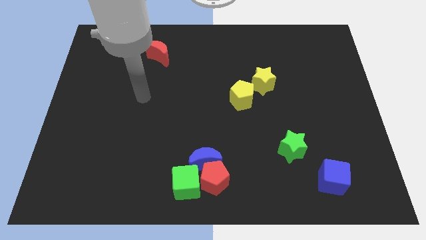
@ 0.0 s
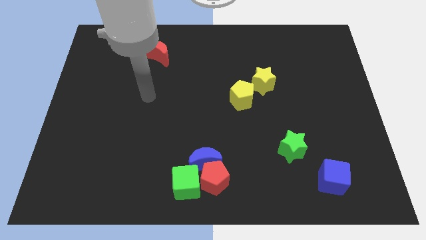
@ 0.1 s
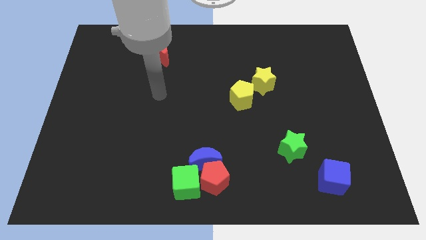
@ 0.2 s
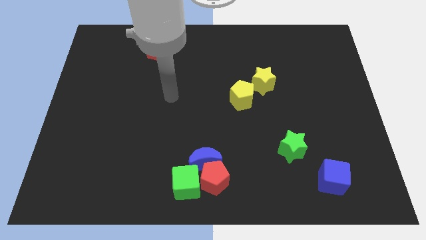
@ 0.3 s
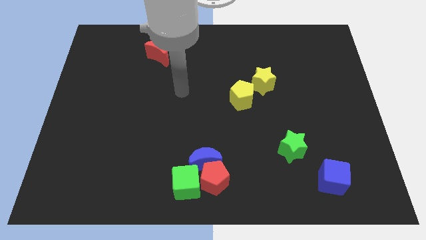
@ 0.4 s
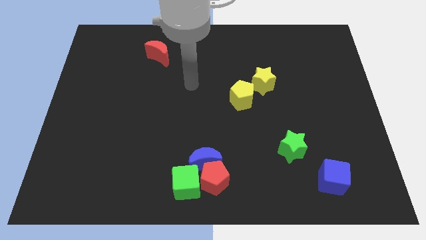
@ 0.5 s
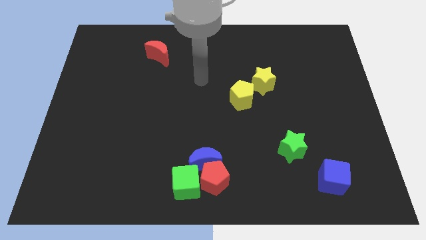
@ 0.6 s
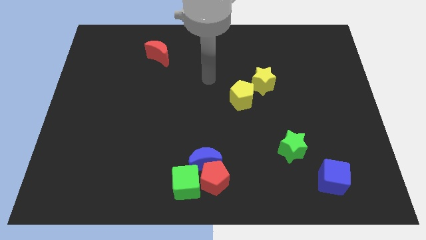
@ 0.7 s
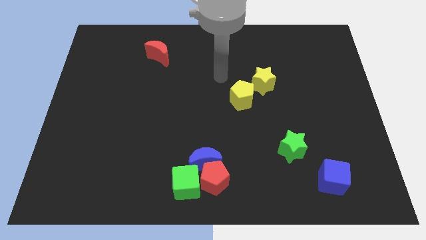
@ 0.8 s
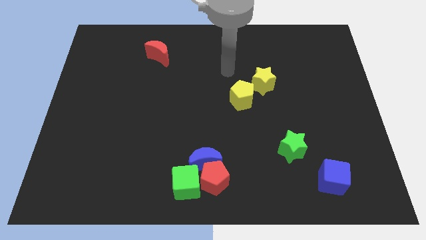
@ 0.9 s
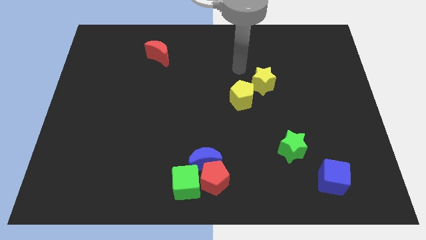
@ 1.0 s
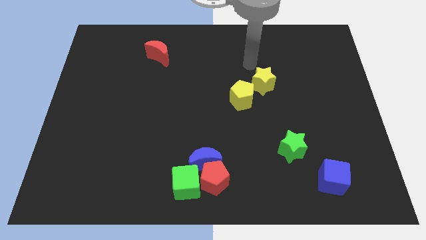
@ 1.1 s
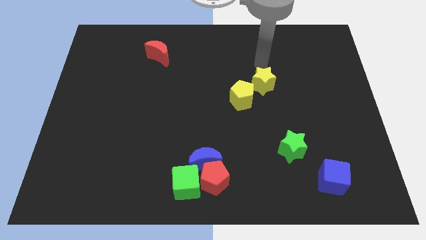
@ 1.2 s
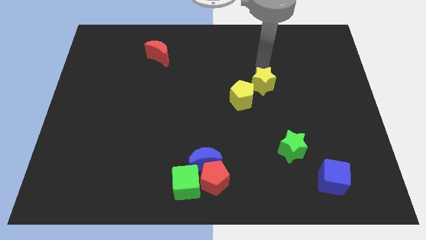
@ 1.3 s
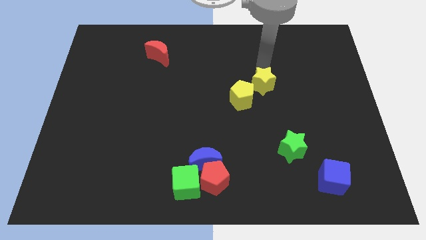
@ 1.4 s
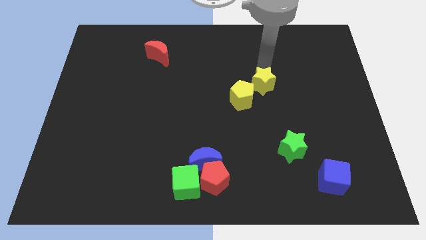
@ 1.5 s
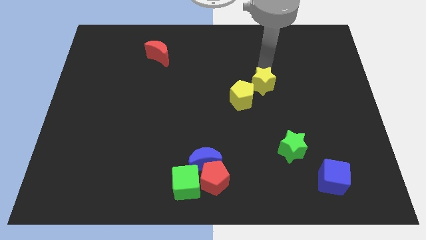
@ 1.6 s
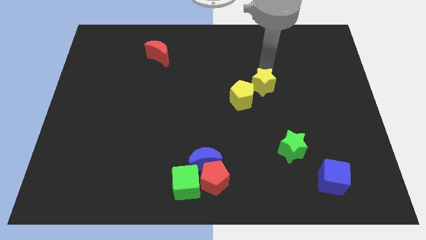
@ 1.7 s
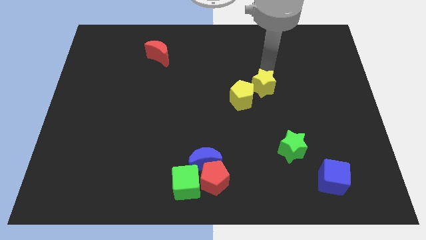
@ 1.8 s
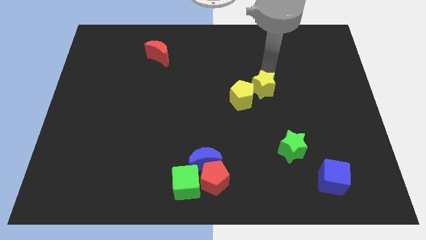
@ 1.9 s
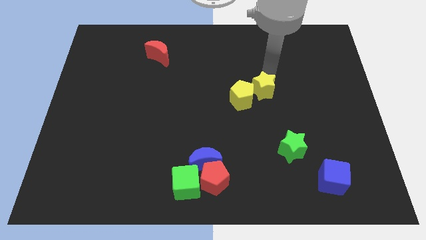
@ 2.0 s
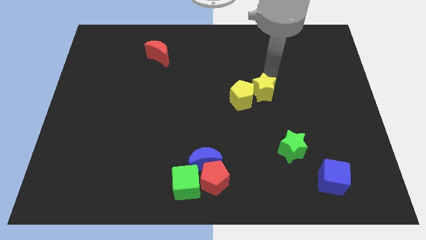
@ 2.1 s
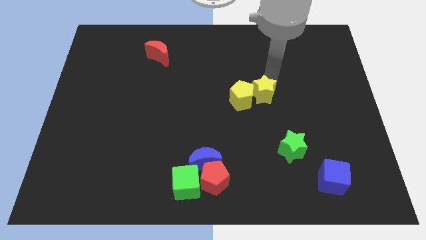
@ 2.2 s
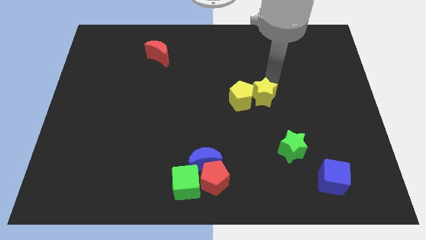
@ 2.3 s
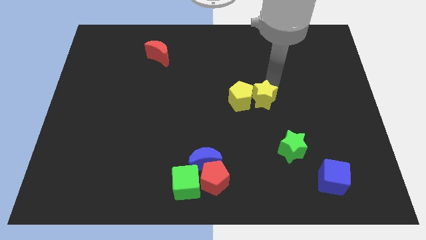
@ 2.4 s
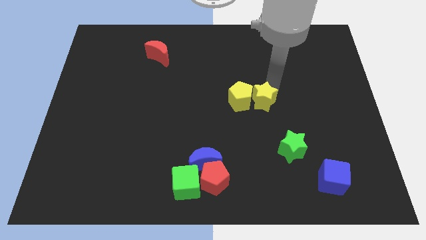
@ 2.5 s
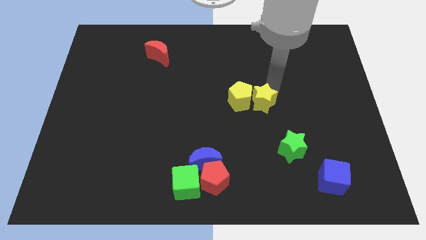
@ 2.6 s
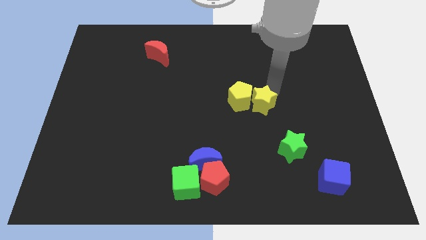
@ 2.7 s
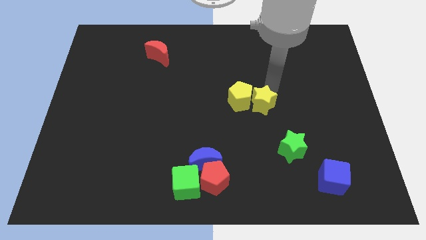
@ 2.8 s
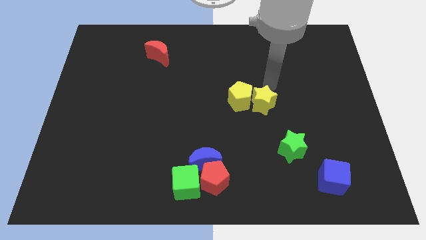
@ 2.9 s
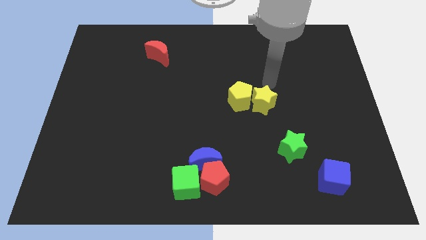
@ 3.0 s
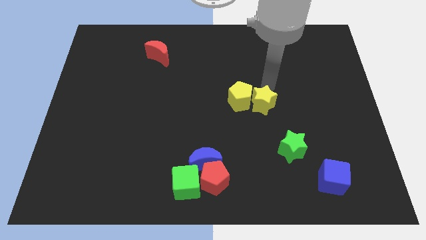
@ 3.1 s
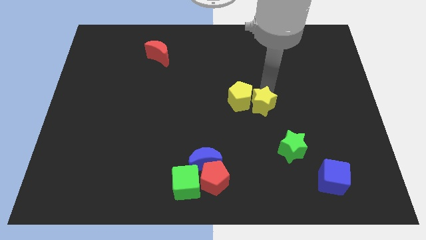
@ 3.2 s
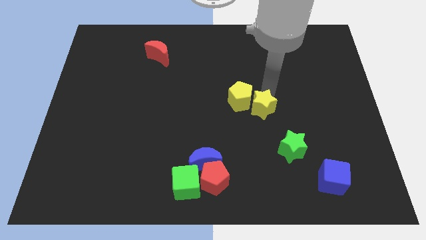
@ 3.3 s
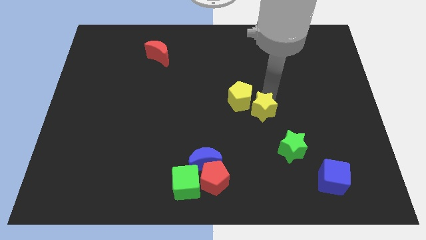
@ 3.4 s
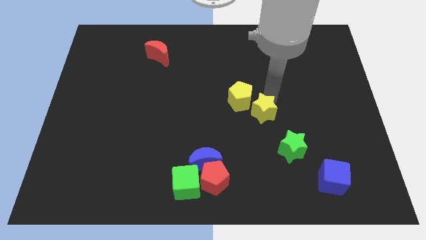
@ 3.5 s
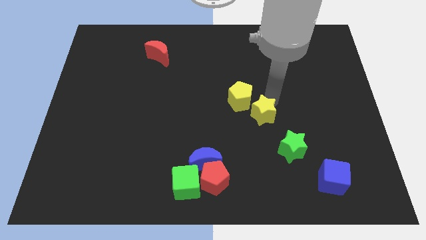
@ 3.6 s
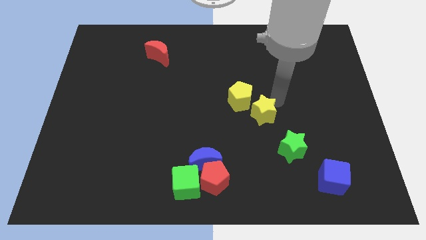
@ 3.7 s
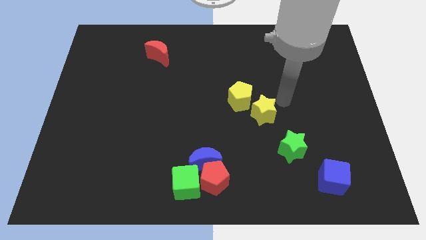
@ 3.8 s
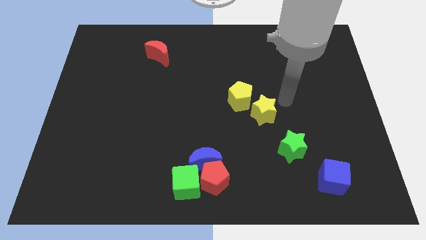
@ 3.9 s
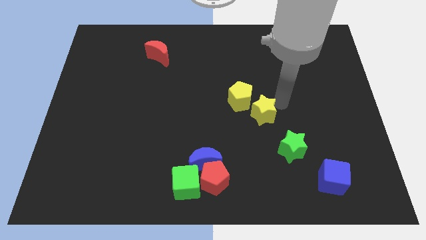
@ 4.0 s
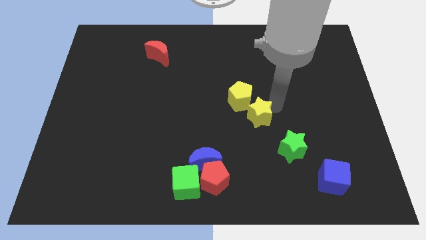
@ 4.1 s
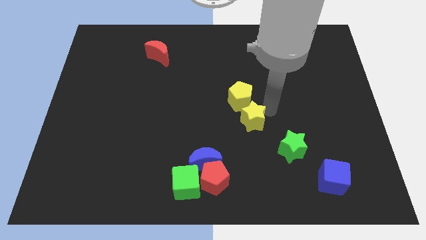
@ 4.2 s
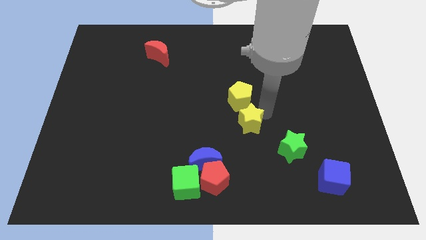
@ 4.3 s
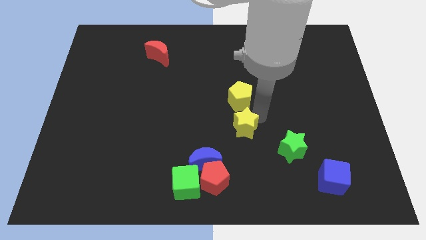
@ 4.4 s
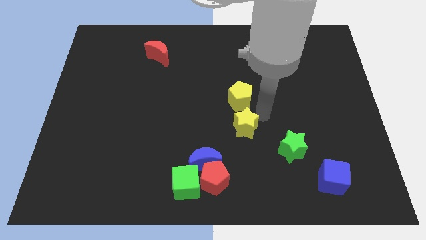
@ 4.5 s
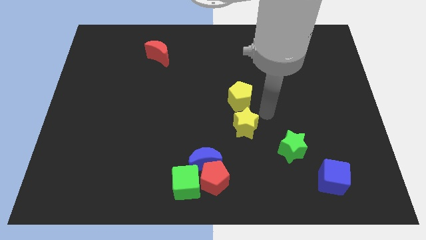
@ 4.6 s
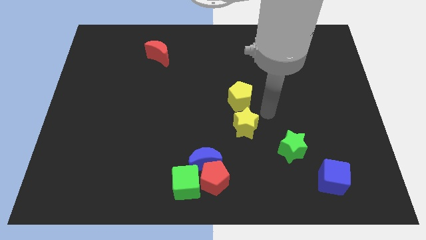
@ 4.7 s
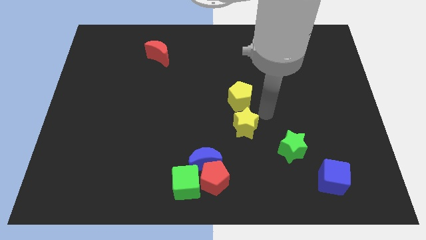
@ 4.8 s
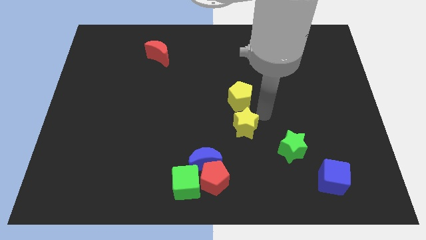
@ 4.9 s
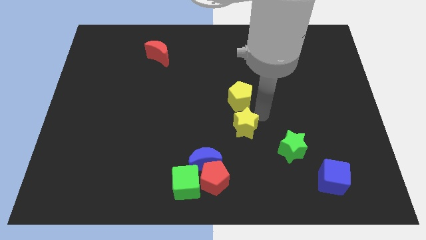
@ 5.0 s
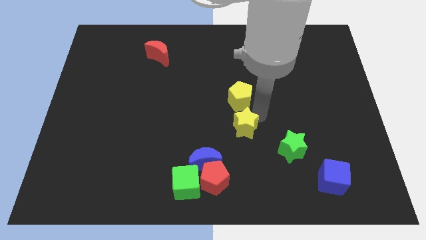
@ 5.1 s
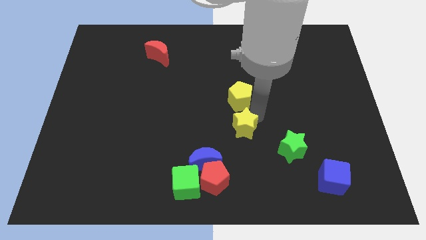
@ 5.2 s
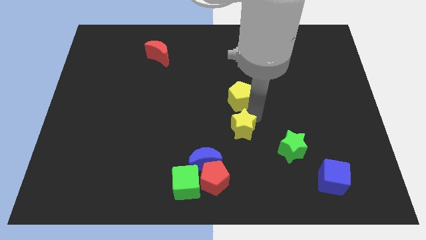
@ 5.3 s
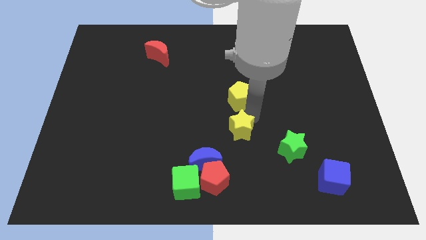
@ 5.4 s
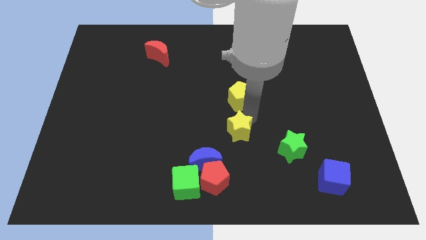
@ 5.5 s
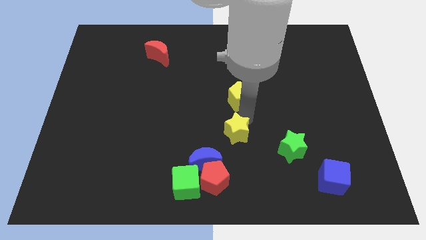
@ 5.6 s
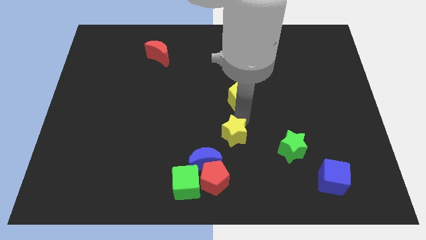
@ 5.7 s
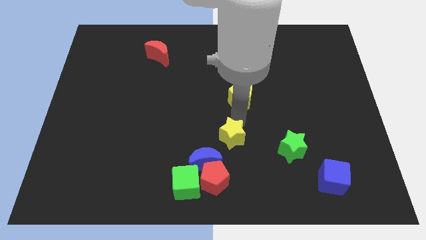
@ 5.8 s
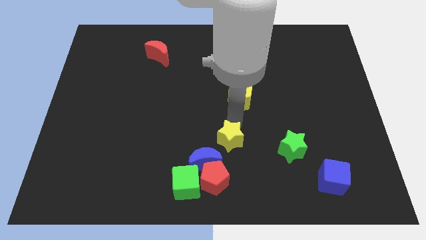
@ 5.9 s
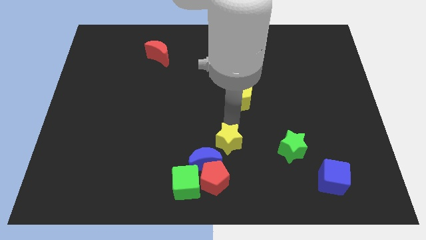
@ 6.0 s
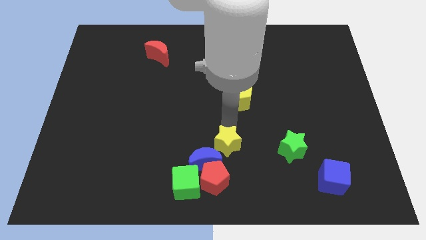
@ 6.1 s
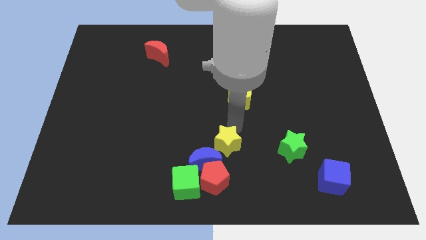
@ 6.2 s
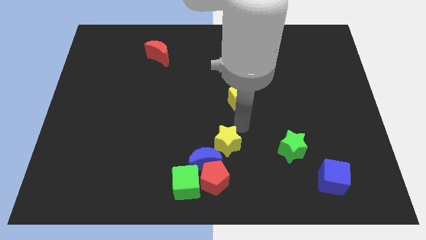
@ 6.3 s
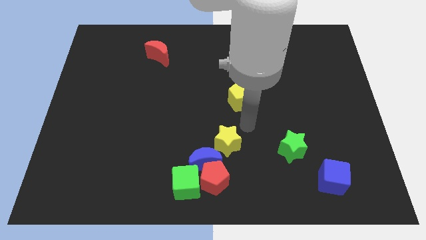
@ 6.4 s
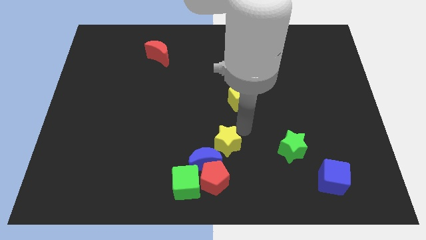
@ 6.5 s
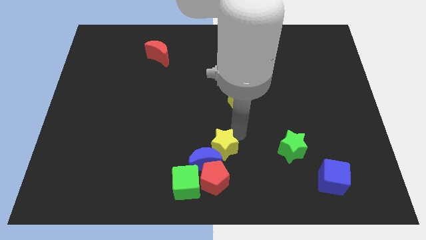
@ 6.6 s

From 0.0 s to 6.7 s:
put the yellow star to the blue moon

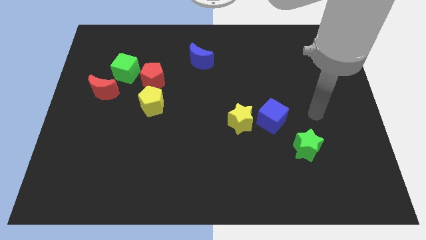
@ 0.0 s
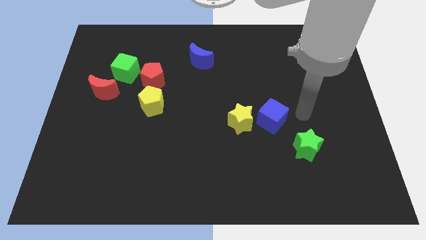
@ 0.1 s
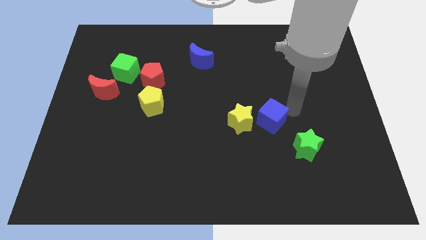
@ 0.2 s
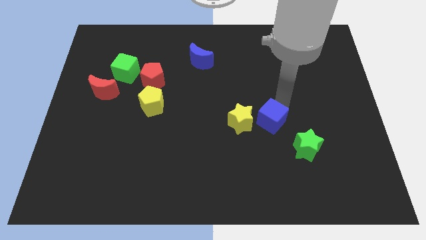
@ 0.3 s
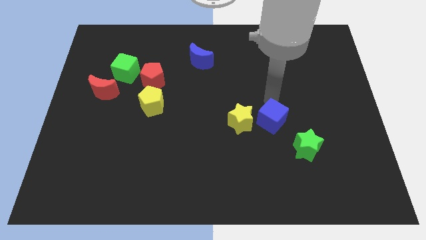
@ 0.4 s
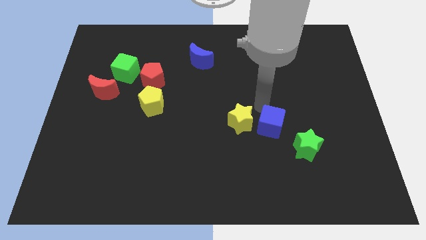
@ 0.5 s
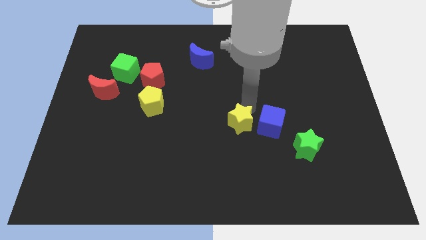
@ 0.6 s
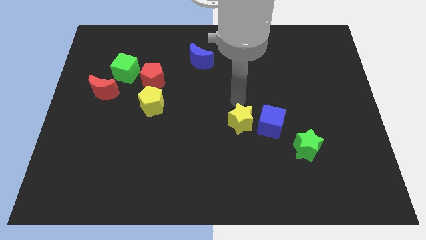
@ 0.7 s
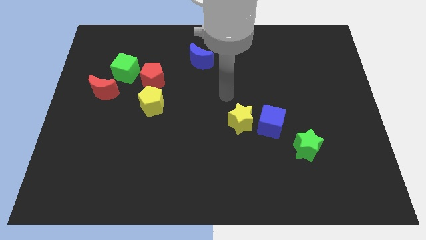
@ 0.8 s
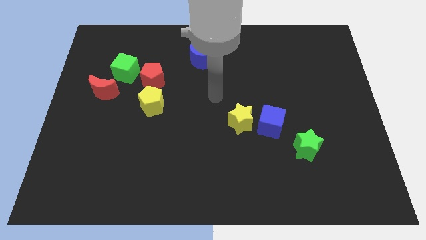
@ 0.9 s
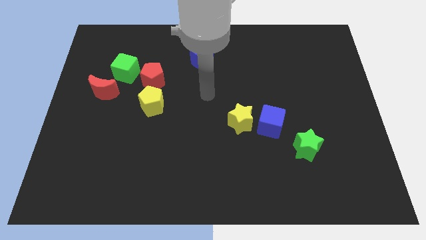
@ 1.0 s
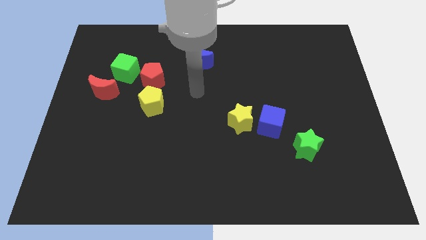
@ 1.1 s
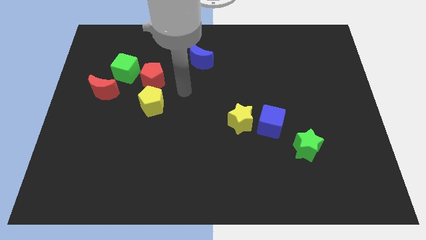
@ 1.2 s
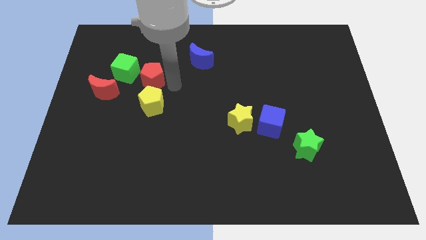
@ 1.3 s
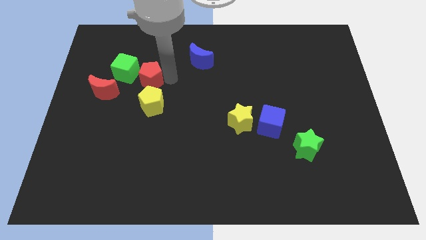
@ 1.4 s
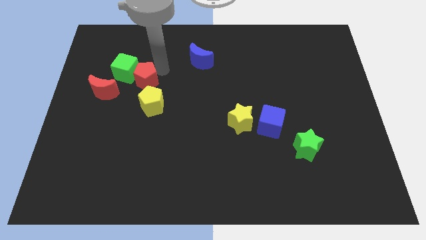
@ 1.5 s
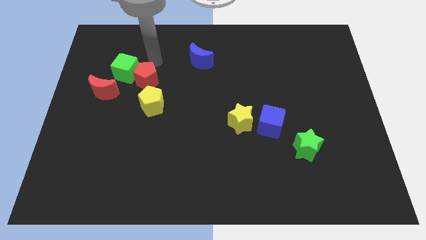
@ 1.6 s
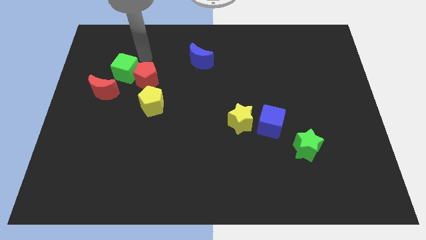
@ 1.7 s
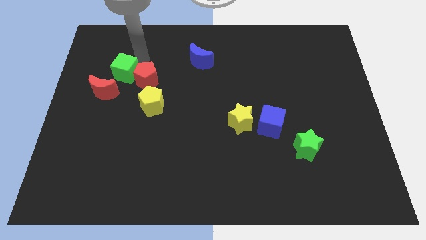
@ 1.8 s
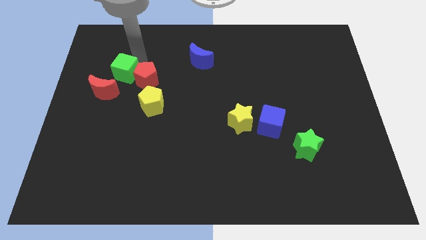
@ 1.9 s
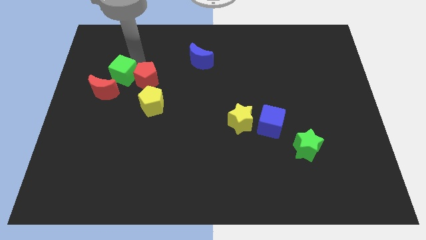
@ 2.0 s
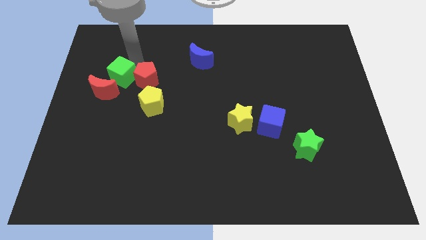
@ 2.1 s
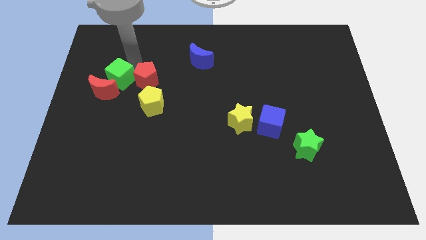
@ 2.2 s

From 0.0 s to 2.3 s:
slide the green cube towards the red moon
